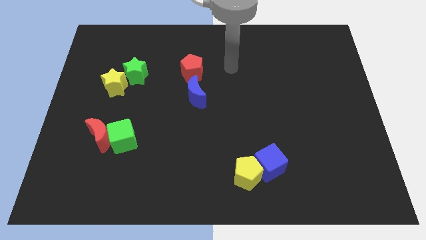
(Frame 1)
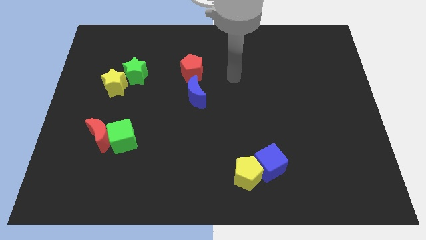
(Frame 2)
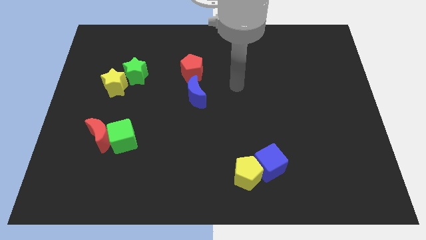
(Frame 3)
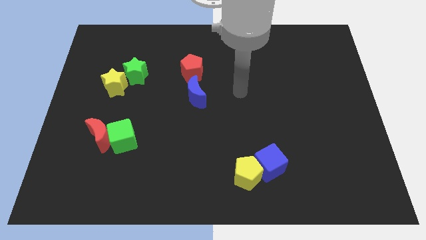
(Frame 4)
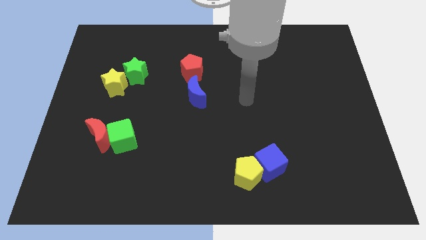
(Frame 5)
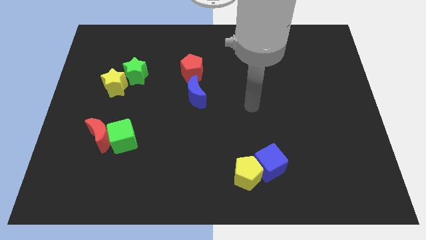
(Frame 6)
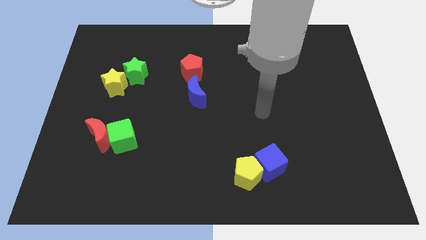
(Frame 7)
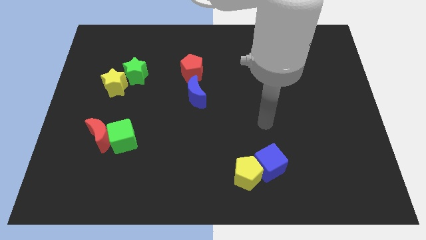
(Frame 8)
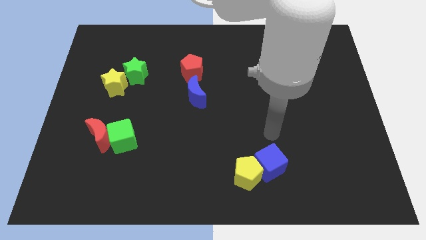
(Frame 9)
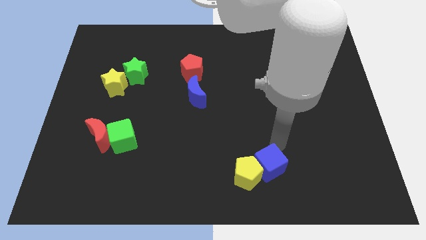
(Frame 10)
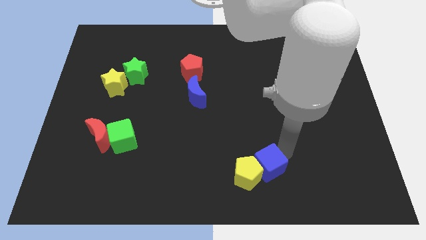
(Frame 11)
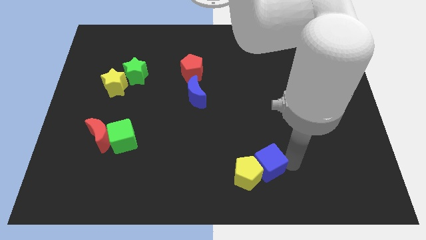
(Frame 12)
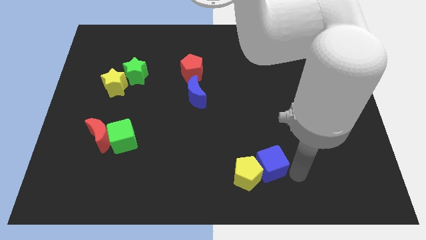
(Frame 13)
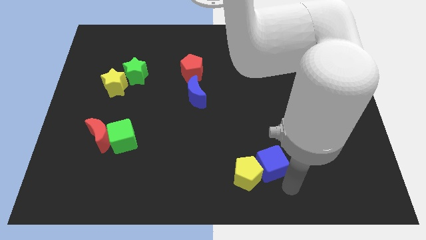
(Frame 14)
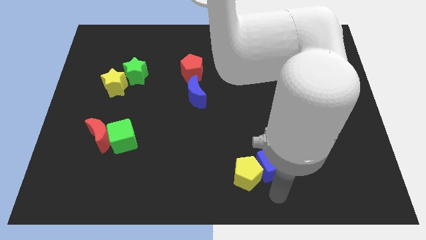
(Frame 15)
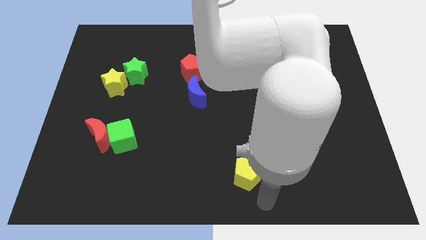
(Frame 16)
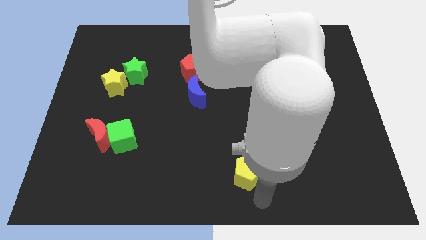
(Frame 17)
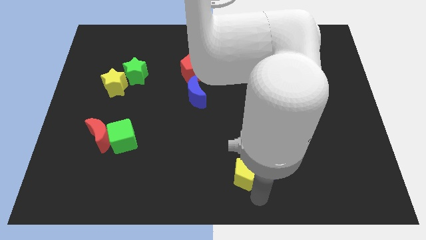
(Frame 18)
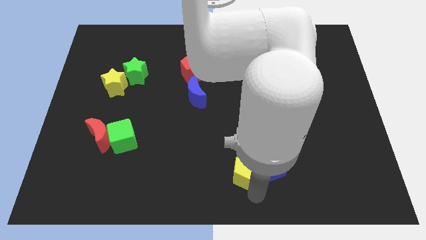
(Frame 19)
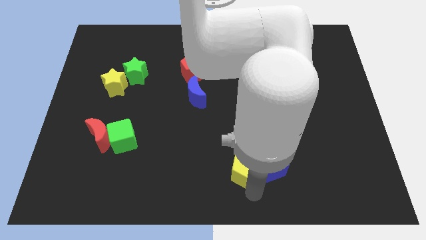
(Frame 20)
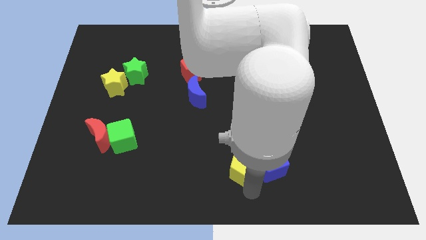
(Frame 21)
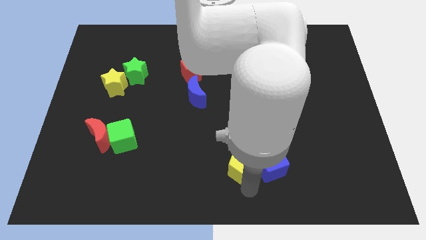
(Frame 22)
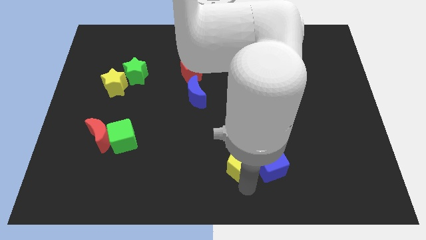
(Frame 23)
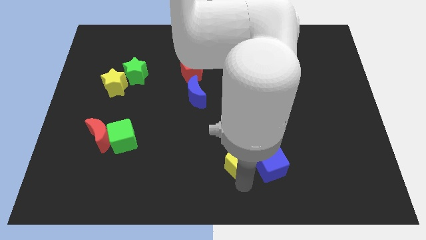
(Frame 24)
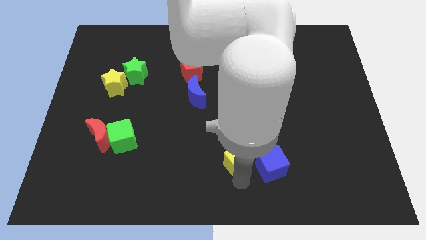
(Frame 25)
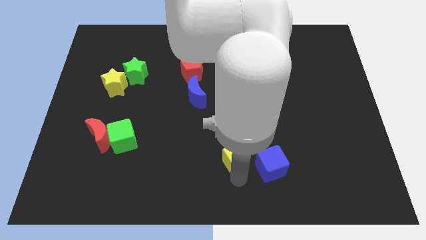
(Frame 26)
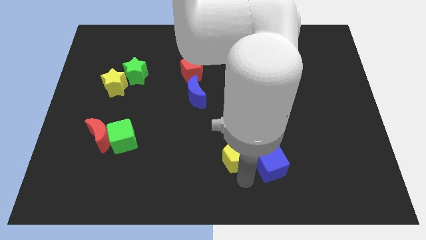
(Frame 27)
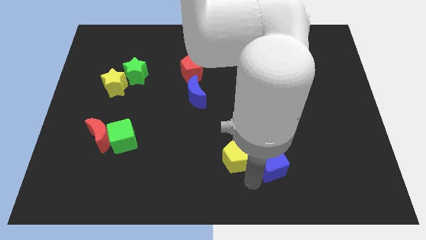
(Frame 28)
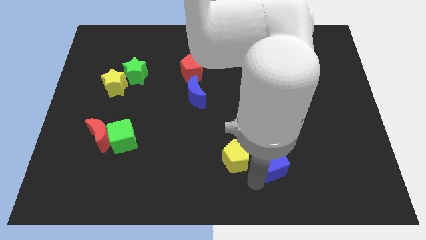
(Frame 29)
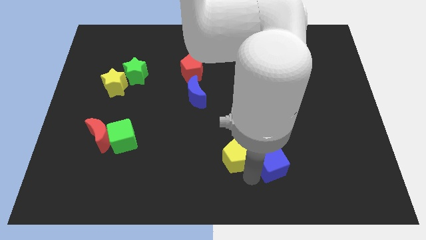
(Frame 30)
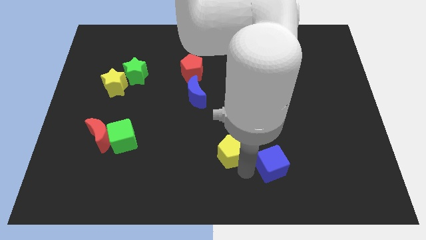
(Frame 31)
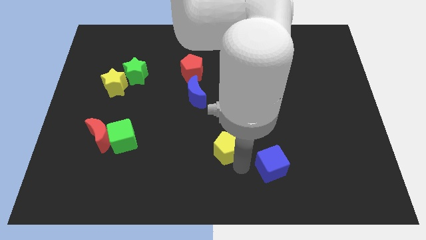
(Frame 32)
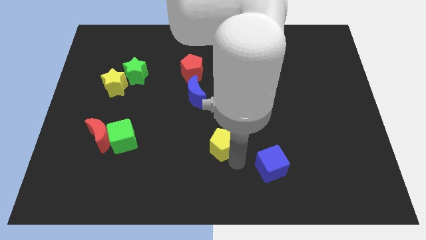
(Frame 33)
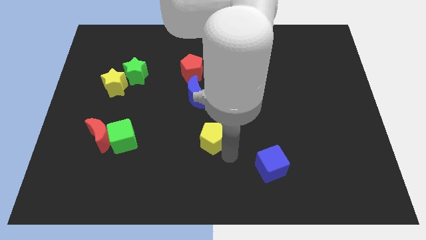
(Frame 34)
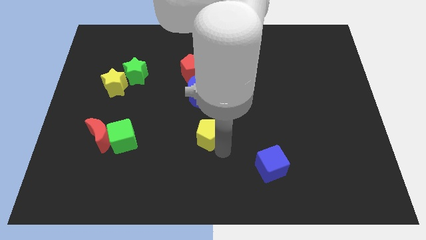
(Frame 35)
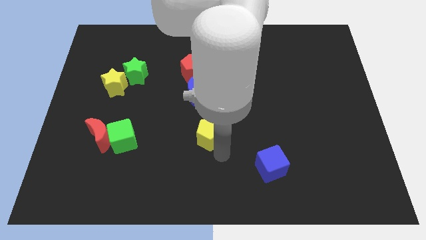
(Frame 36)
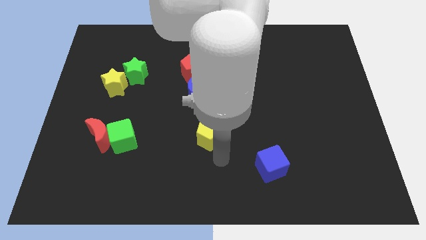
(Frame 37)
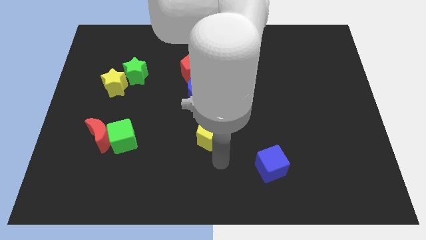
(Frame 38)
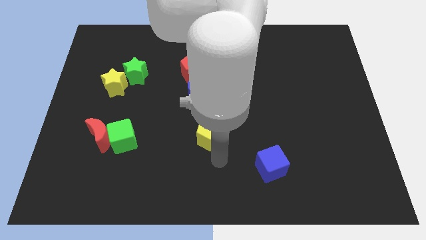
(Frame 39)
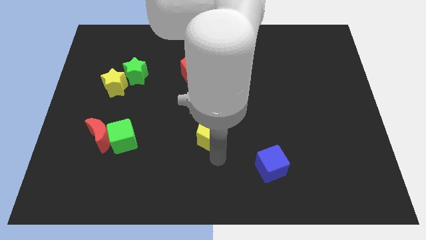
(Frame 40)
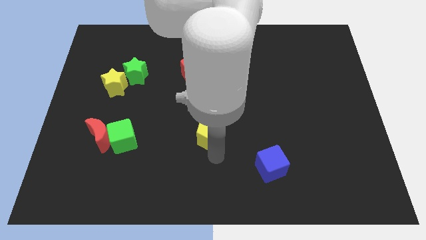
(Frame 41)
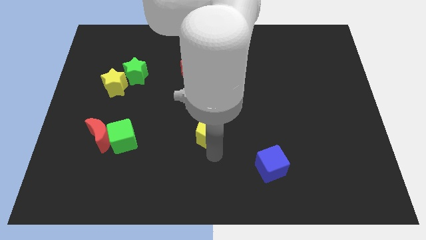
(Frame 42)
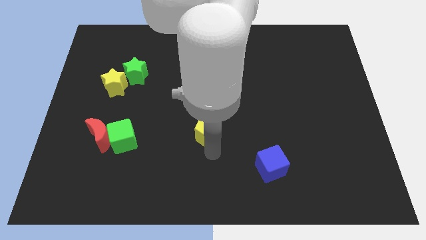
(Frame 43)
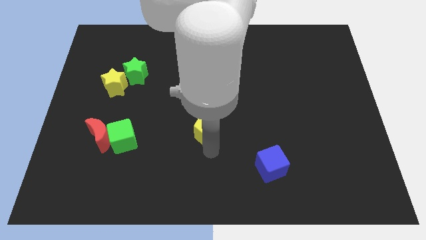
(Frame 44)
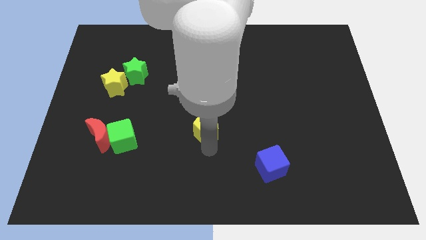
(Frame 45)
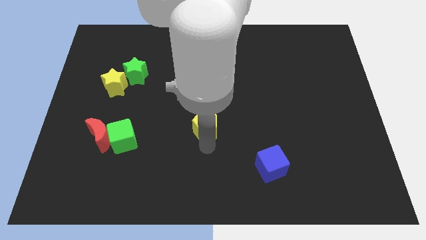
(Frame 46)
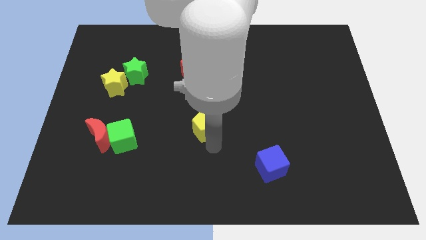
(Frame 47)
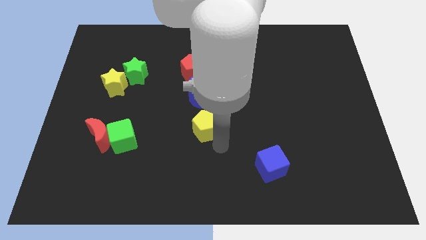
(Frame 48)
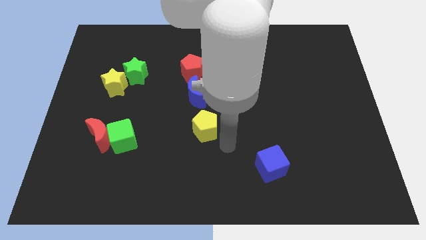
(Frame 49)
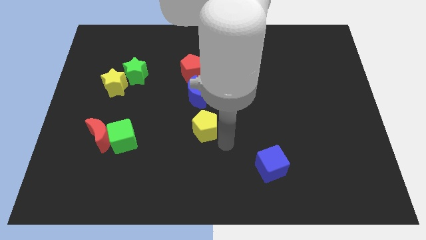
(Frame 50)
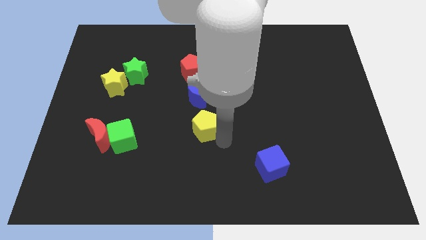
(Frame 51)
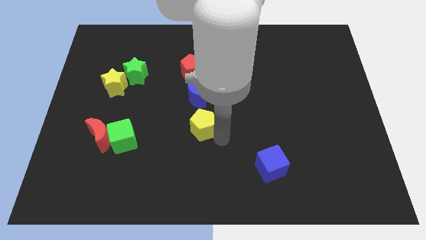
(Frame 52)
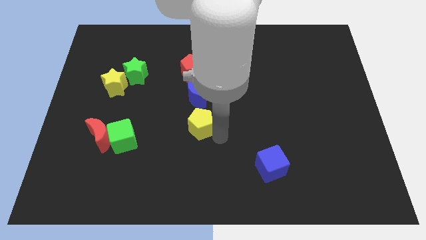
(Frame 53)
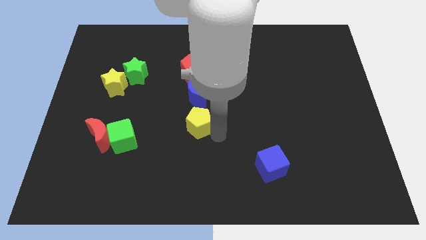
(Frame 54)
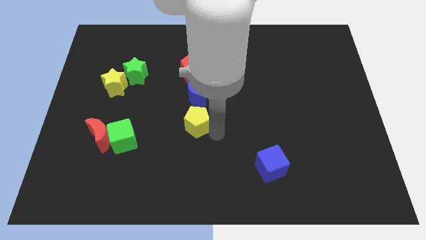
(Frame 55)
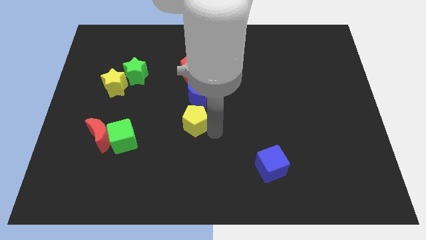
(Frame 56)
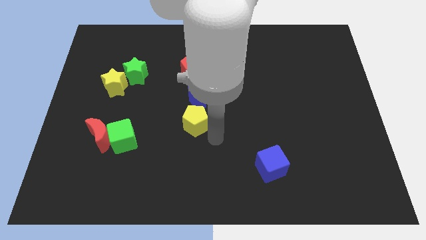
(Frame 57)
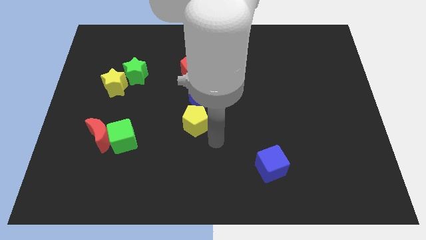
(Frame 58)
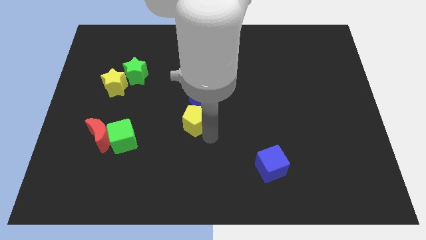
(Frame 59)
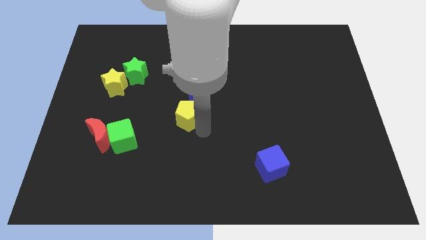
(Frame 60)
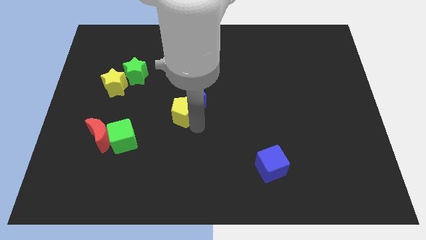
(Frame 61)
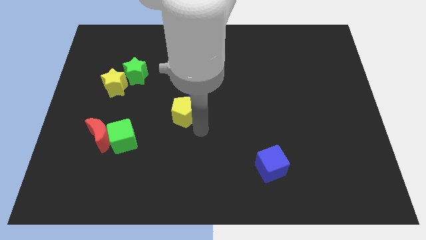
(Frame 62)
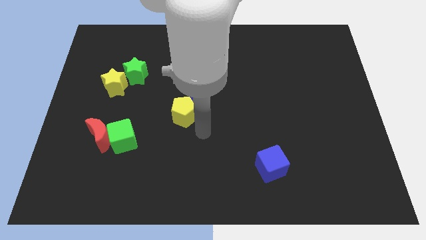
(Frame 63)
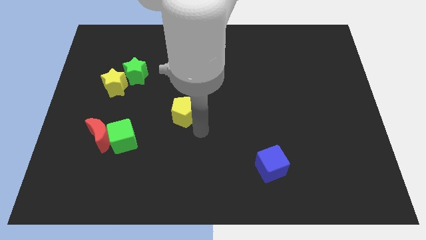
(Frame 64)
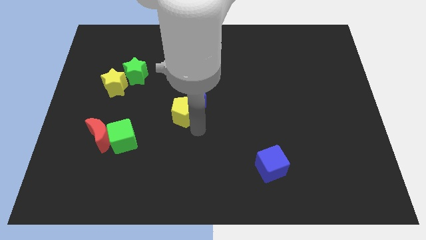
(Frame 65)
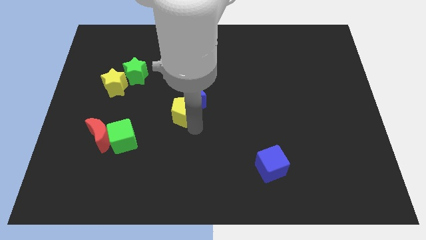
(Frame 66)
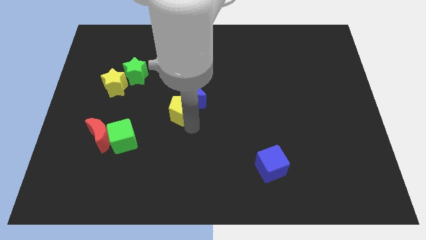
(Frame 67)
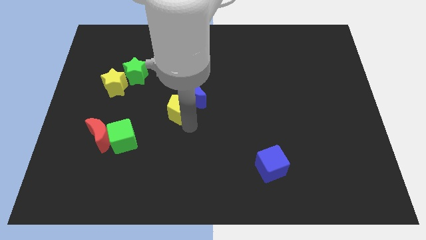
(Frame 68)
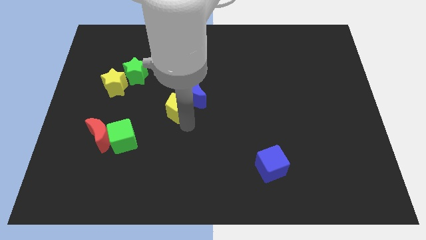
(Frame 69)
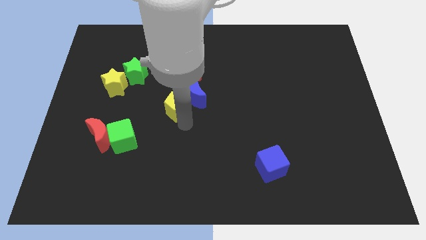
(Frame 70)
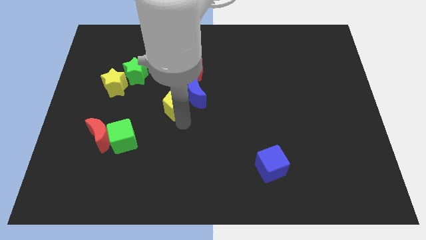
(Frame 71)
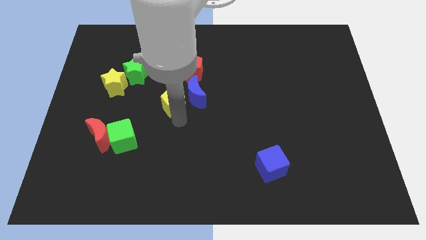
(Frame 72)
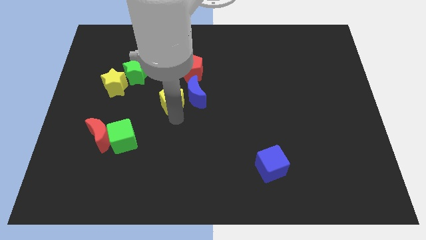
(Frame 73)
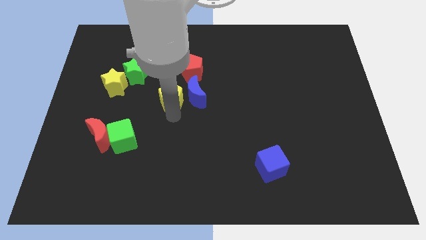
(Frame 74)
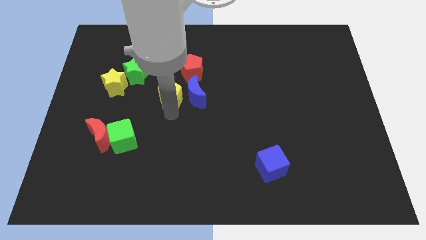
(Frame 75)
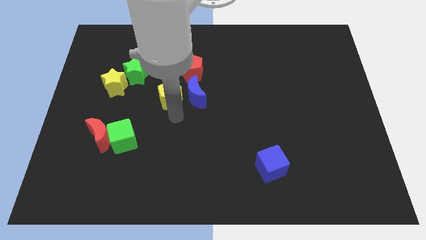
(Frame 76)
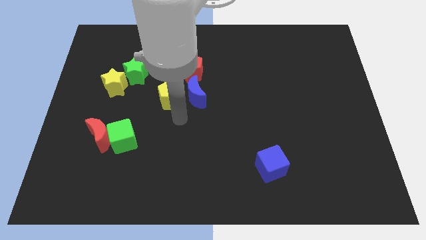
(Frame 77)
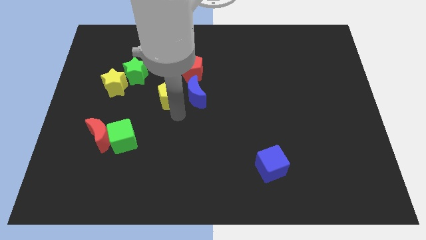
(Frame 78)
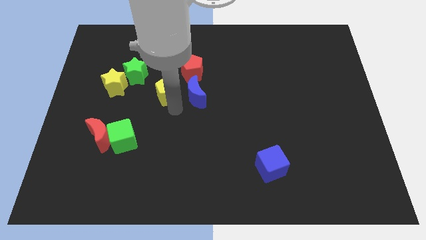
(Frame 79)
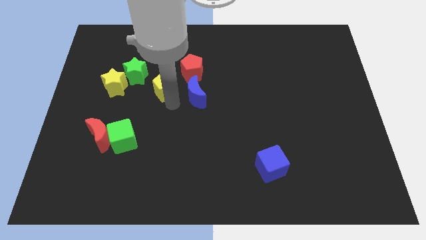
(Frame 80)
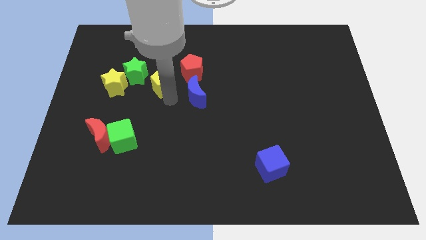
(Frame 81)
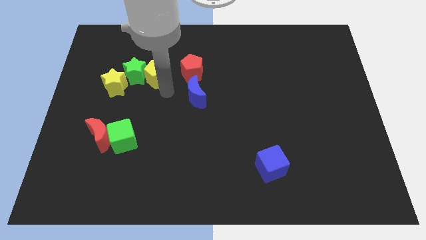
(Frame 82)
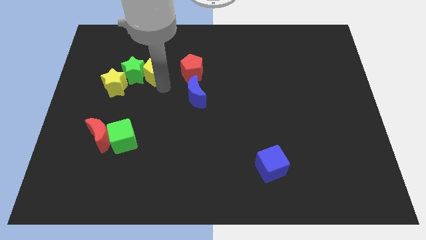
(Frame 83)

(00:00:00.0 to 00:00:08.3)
push the yellow pentagon to the top right side of the yellow star
